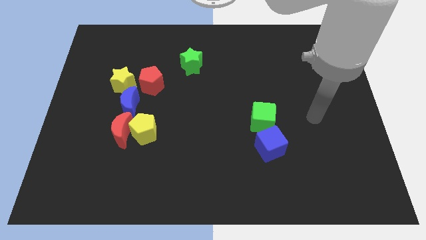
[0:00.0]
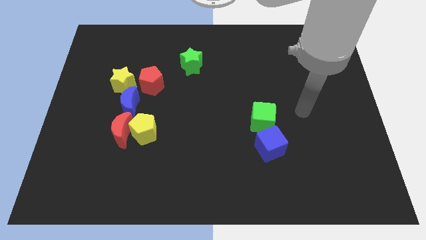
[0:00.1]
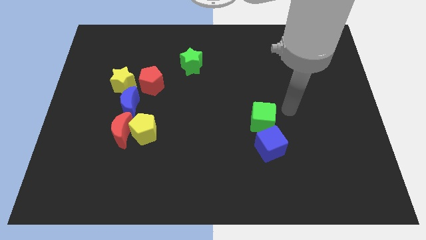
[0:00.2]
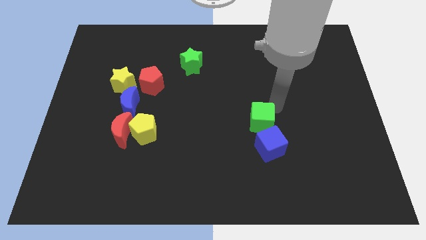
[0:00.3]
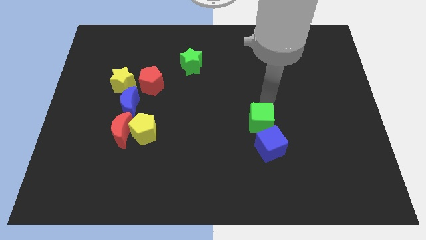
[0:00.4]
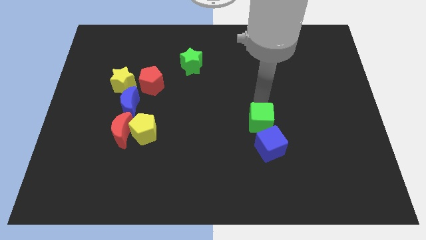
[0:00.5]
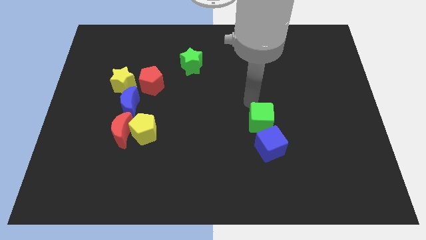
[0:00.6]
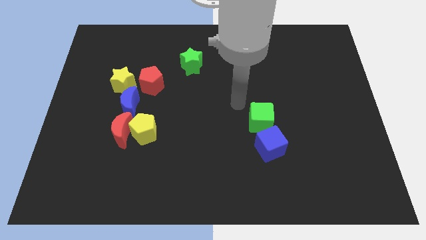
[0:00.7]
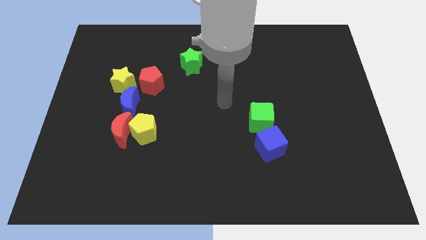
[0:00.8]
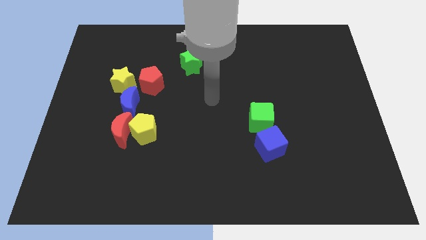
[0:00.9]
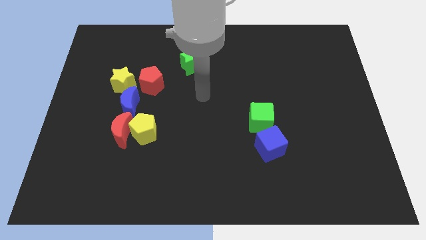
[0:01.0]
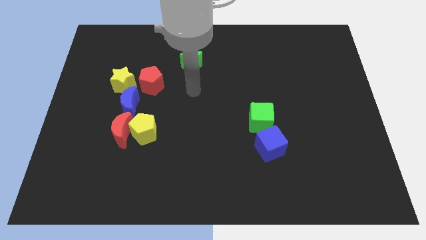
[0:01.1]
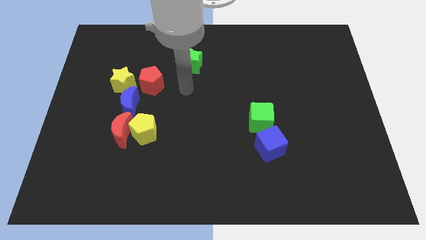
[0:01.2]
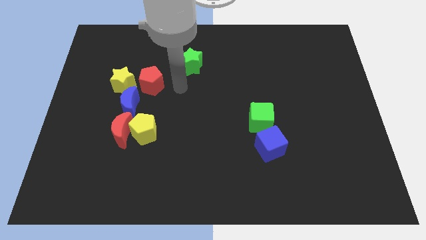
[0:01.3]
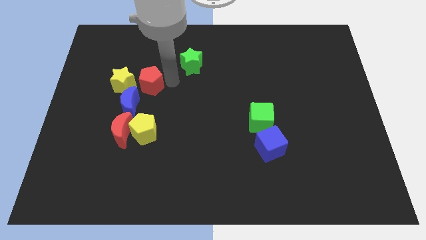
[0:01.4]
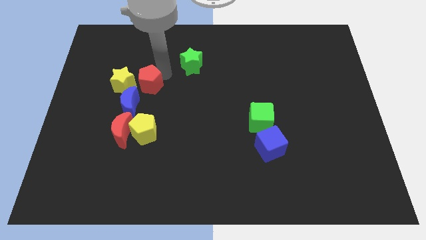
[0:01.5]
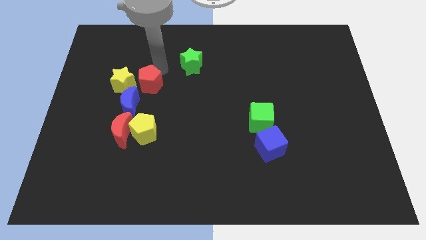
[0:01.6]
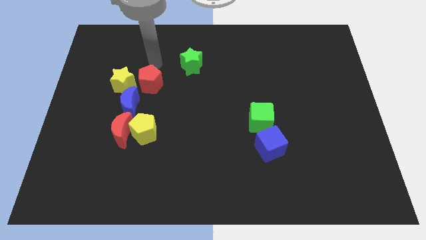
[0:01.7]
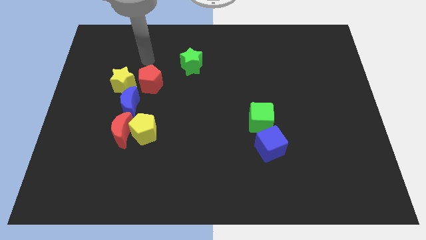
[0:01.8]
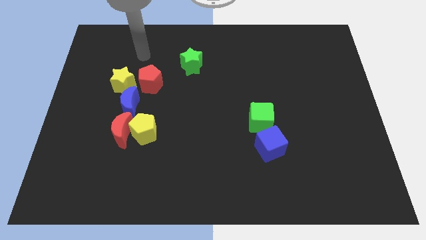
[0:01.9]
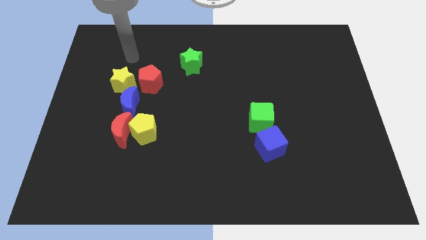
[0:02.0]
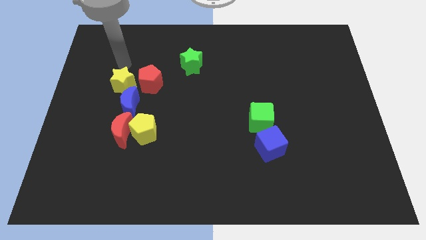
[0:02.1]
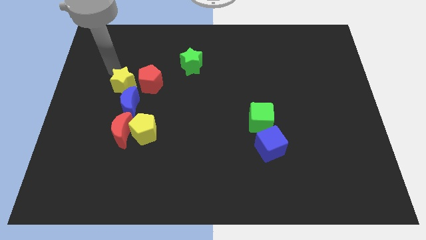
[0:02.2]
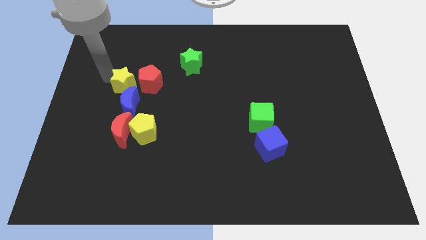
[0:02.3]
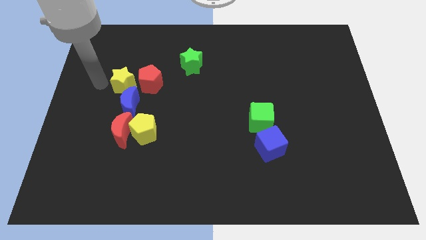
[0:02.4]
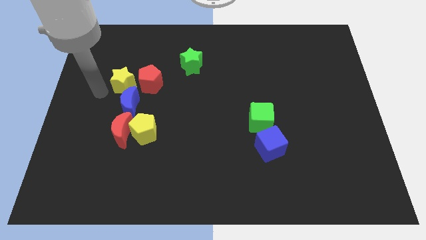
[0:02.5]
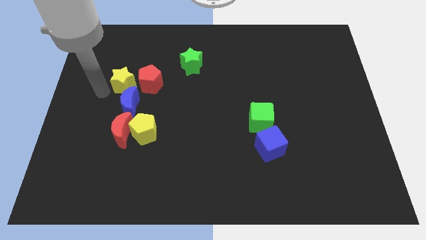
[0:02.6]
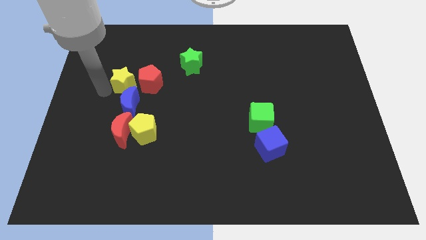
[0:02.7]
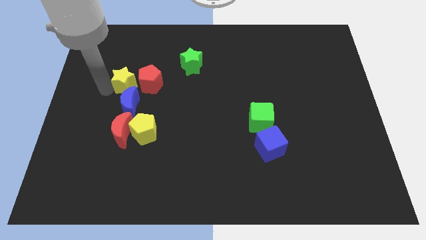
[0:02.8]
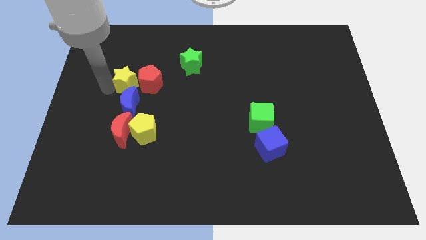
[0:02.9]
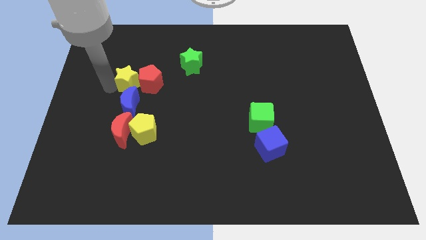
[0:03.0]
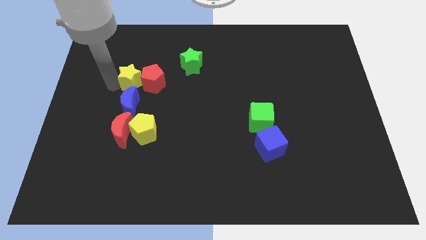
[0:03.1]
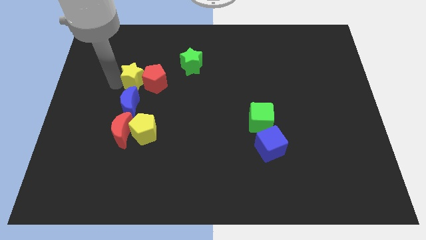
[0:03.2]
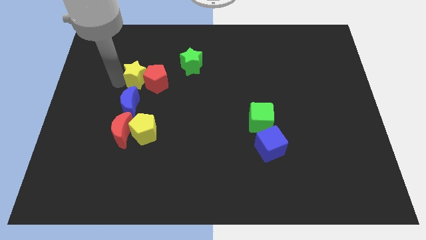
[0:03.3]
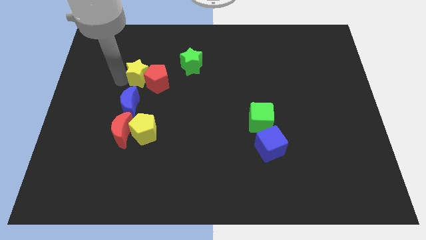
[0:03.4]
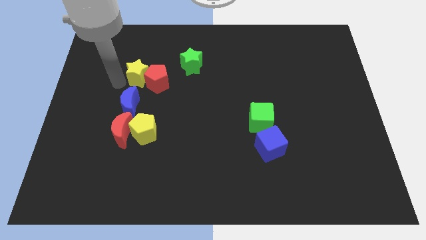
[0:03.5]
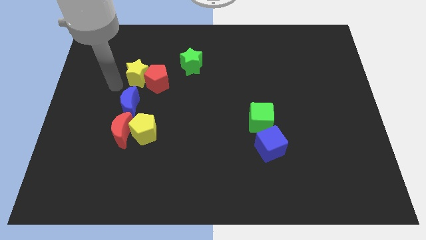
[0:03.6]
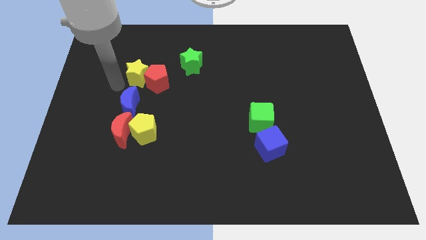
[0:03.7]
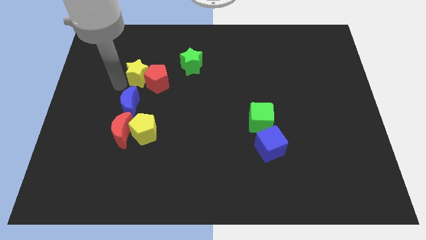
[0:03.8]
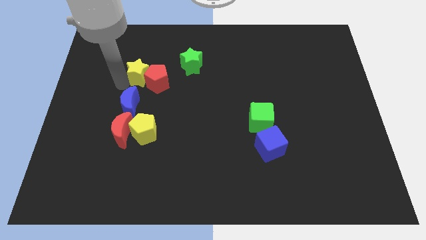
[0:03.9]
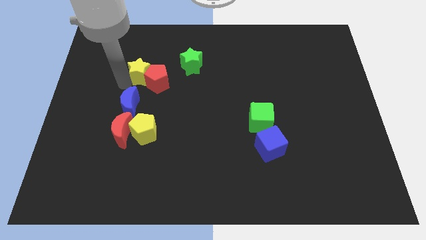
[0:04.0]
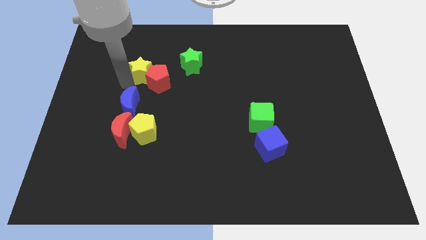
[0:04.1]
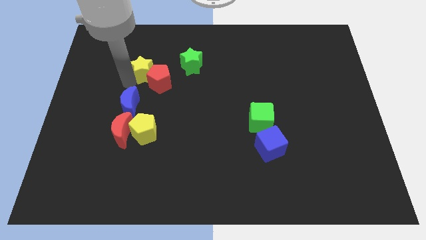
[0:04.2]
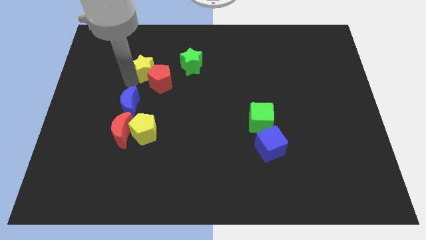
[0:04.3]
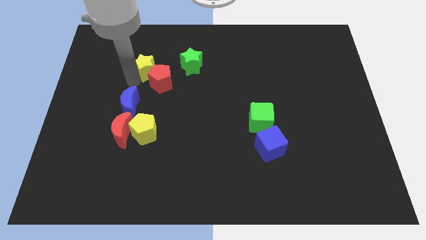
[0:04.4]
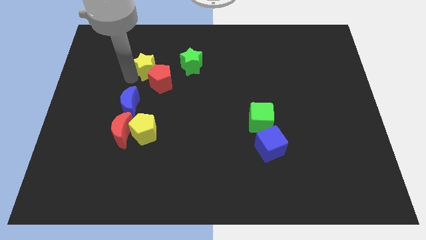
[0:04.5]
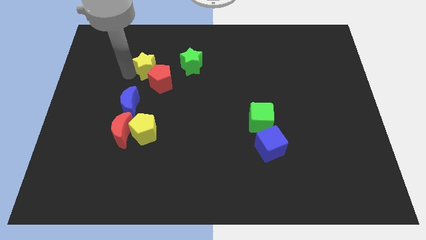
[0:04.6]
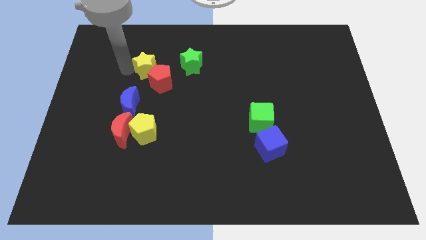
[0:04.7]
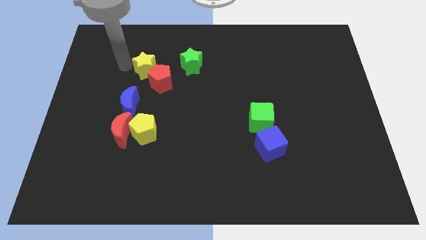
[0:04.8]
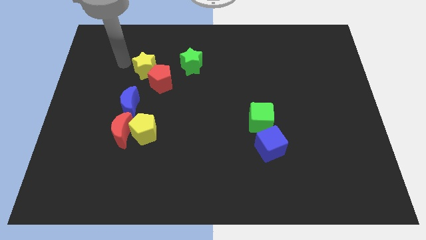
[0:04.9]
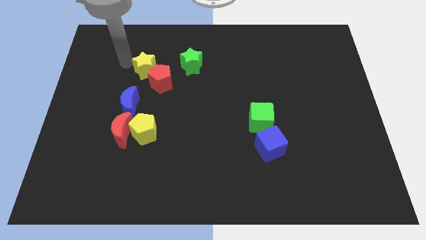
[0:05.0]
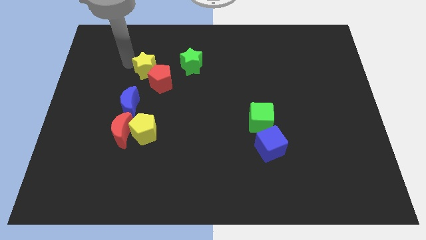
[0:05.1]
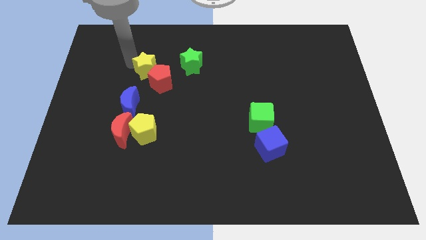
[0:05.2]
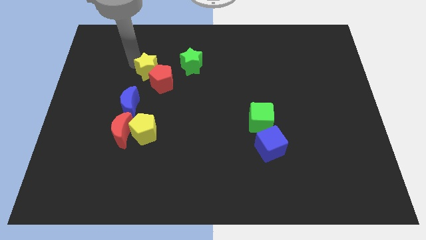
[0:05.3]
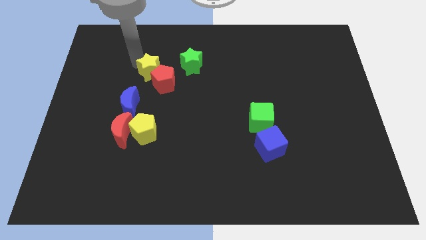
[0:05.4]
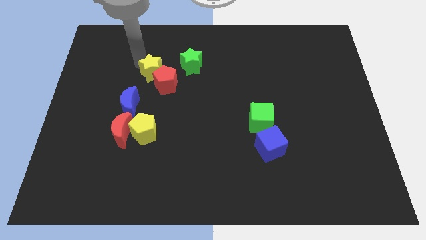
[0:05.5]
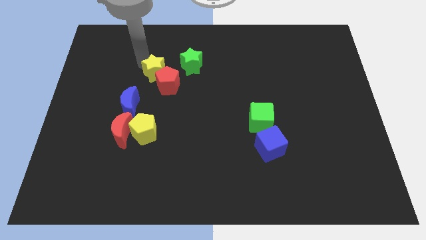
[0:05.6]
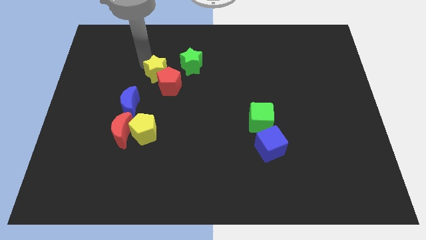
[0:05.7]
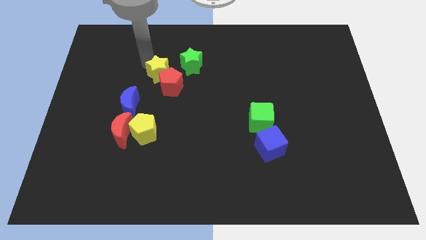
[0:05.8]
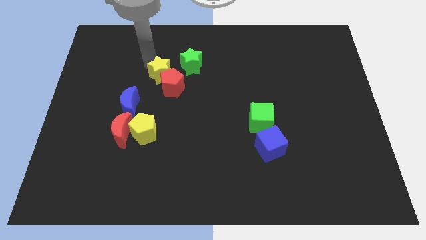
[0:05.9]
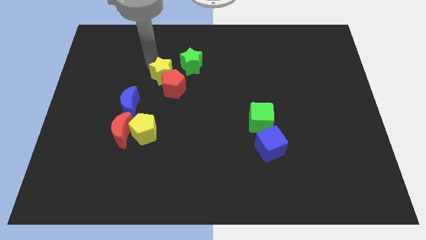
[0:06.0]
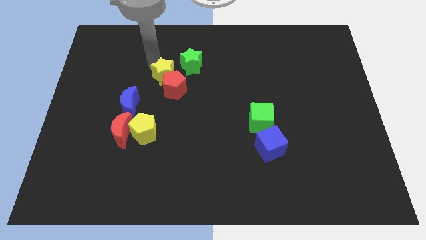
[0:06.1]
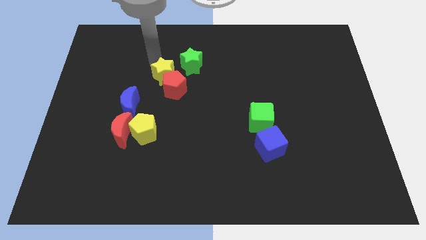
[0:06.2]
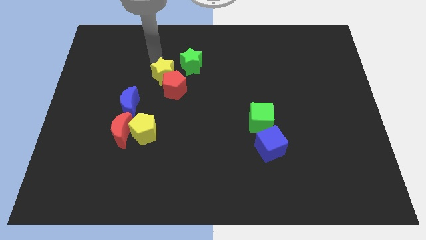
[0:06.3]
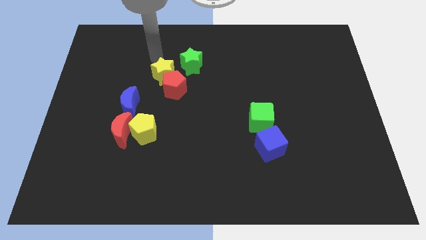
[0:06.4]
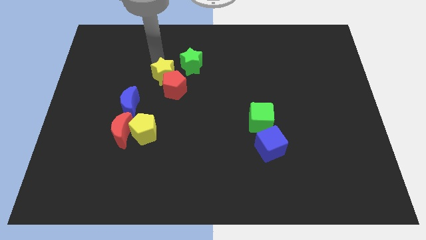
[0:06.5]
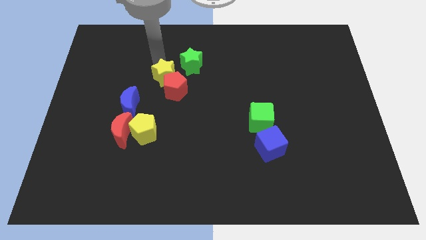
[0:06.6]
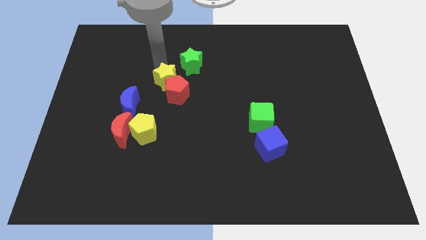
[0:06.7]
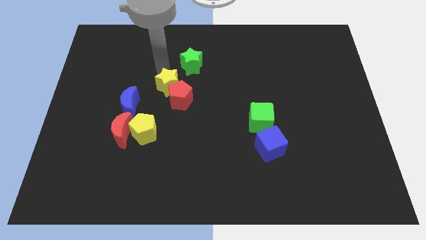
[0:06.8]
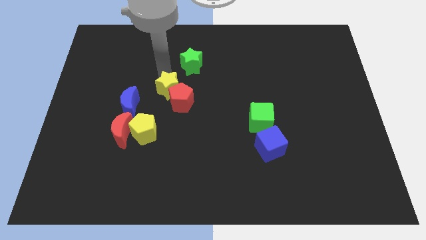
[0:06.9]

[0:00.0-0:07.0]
slightly slide the yellow star diagonally down and to the right

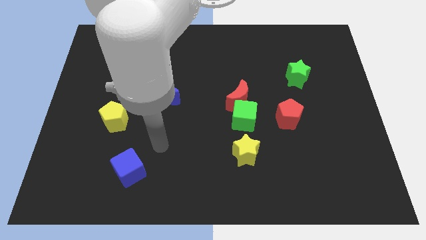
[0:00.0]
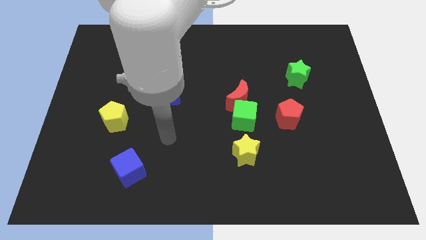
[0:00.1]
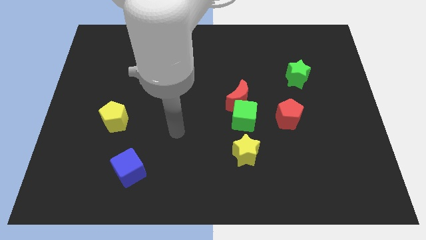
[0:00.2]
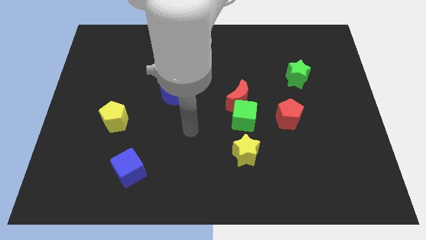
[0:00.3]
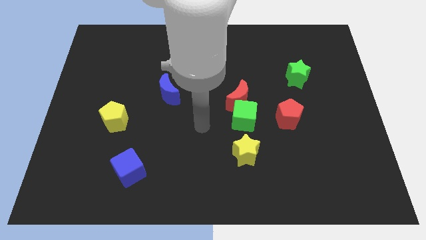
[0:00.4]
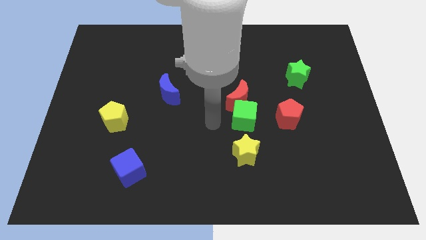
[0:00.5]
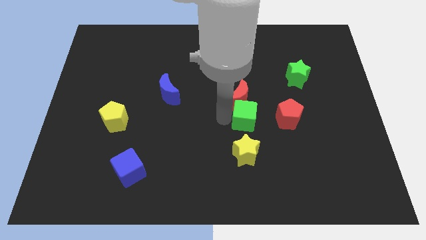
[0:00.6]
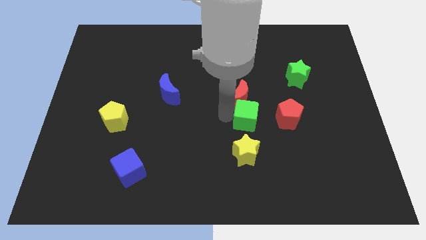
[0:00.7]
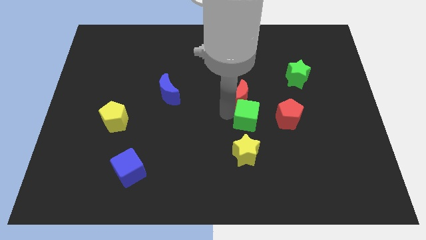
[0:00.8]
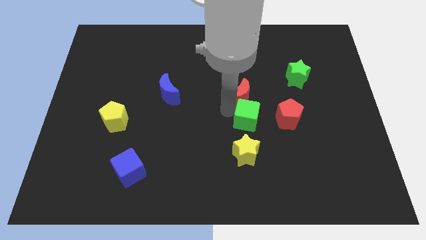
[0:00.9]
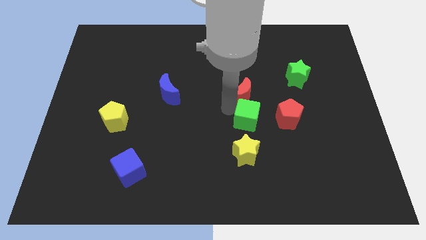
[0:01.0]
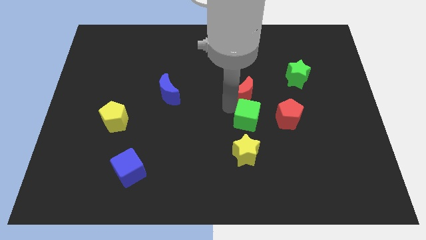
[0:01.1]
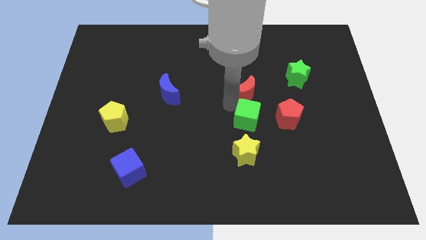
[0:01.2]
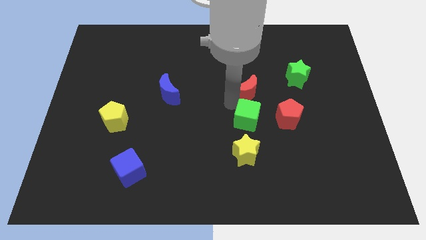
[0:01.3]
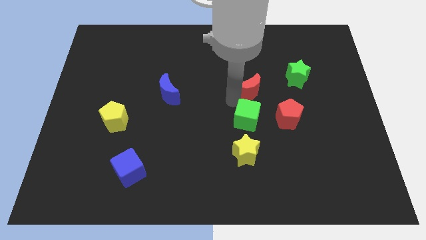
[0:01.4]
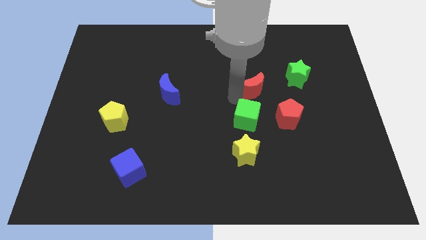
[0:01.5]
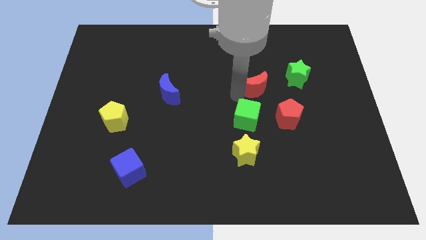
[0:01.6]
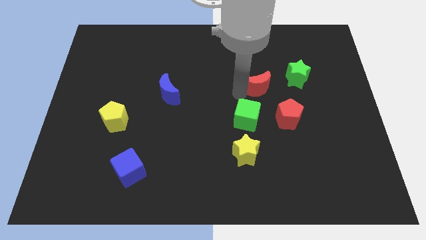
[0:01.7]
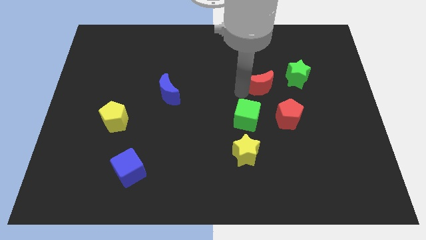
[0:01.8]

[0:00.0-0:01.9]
slide the red moon a little bit upwards and then right
